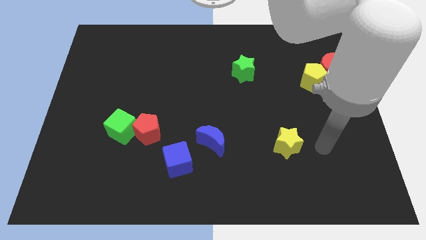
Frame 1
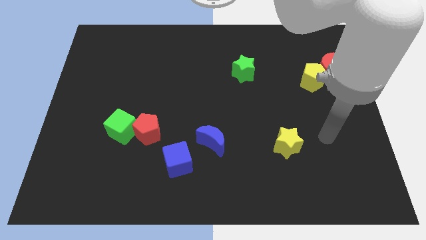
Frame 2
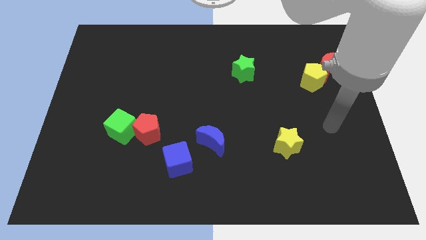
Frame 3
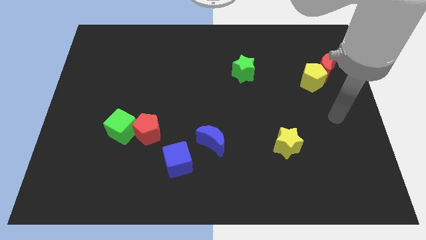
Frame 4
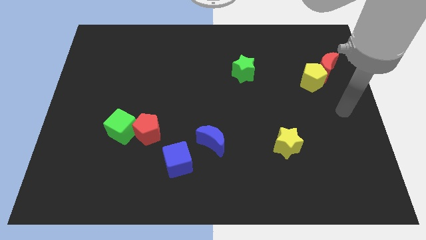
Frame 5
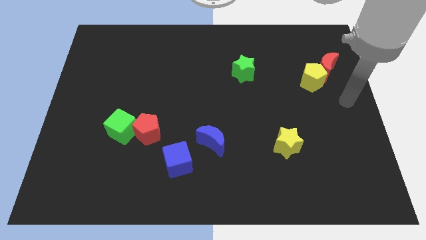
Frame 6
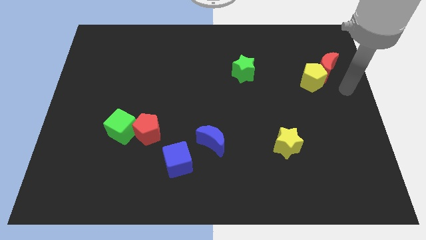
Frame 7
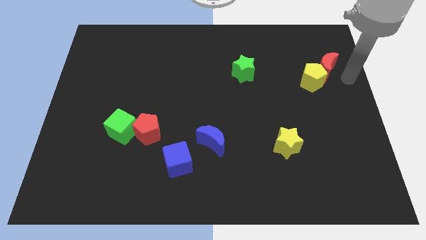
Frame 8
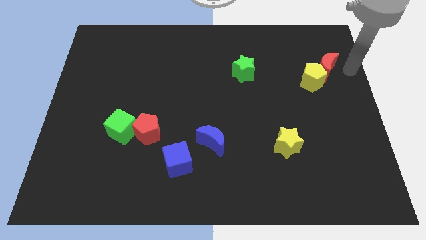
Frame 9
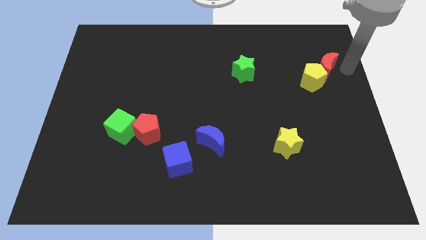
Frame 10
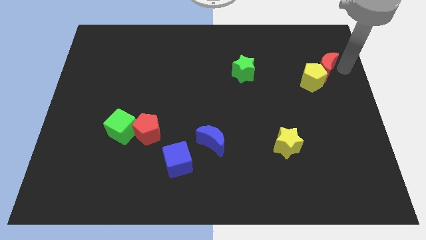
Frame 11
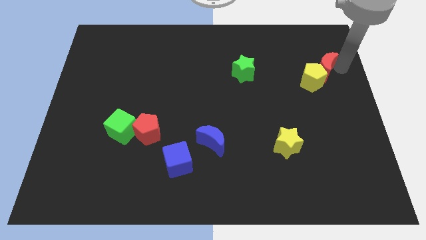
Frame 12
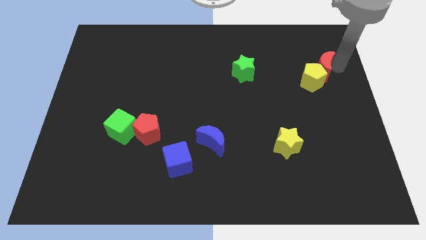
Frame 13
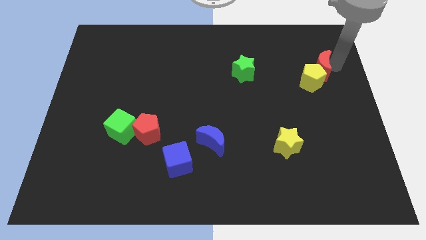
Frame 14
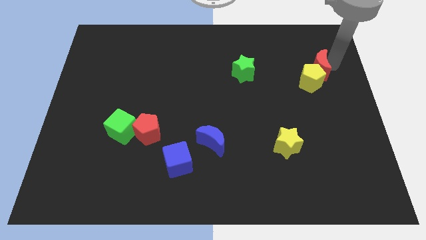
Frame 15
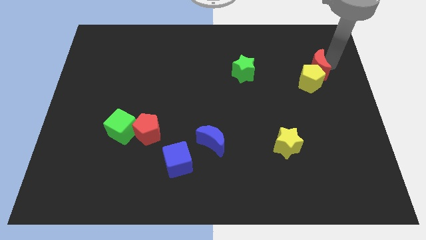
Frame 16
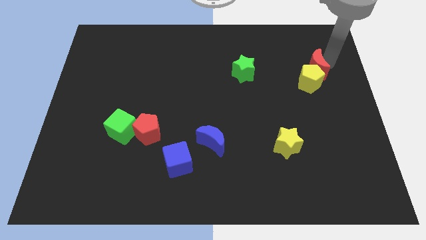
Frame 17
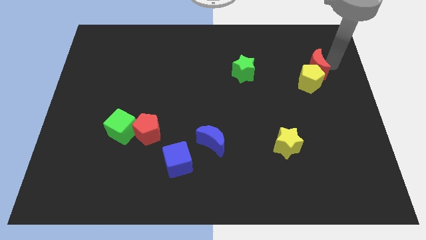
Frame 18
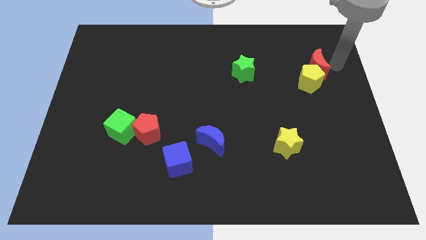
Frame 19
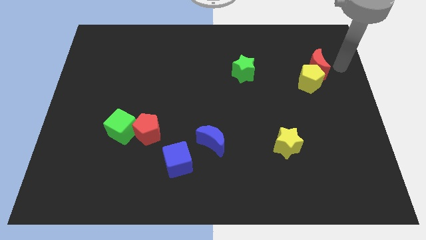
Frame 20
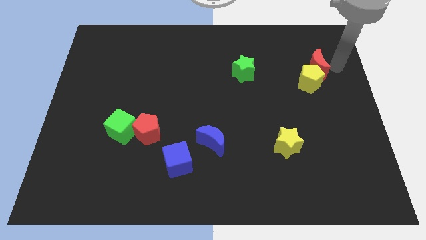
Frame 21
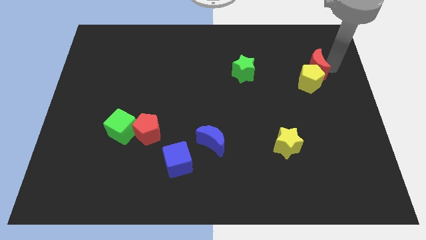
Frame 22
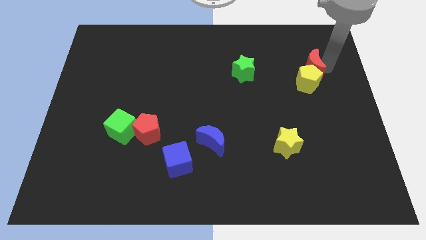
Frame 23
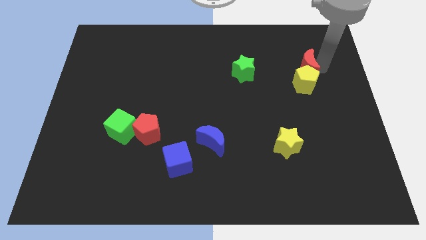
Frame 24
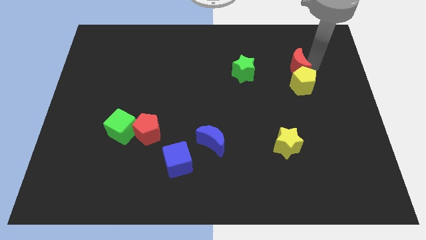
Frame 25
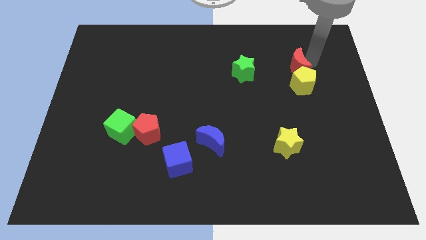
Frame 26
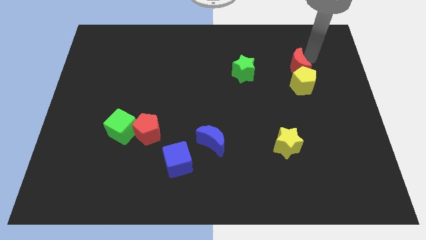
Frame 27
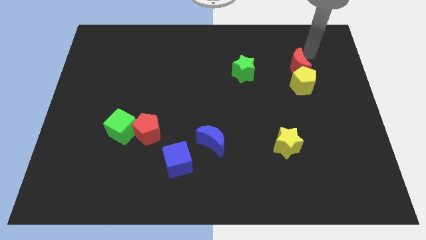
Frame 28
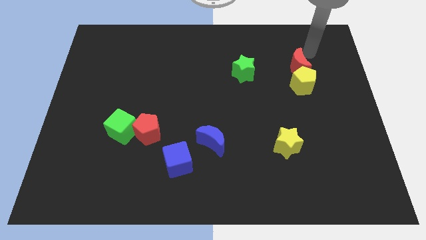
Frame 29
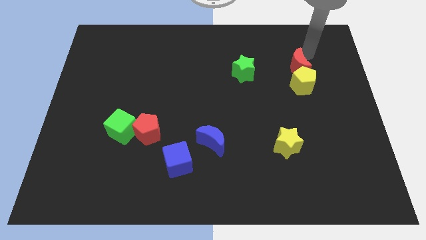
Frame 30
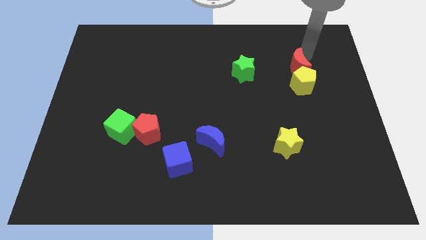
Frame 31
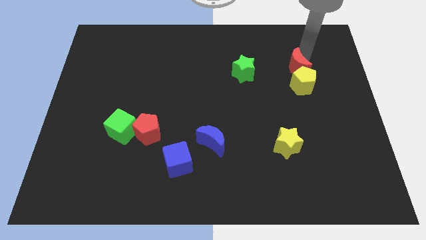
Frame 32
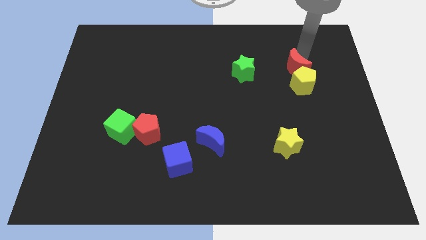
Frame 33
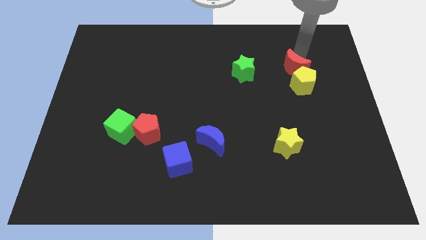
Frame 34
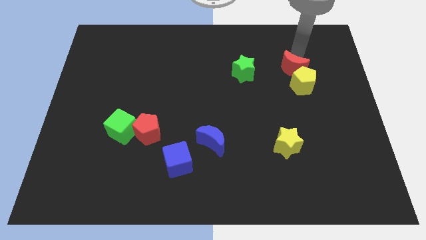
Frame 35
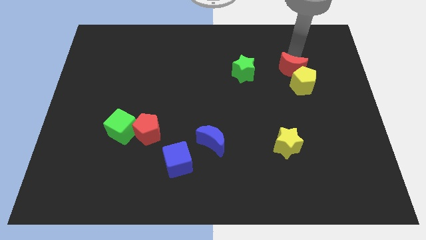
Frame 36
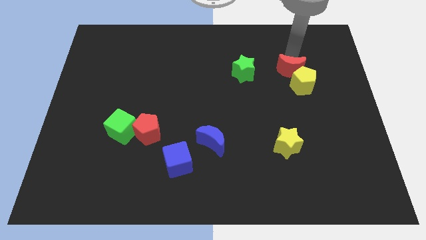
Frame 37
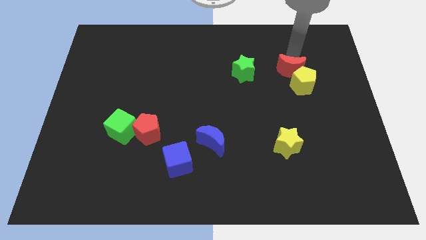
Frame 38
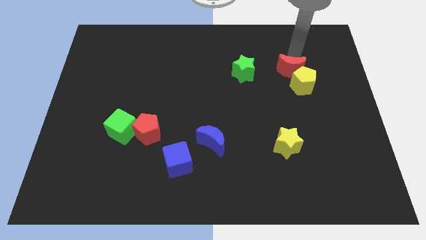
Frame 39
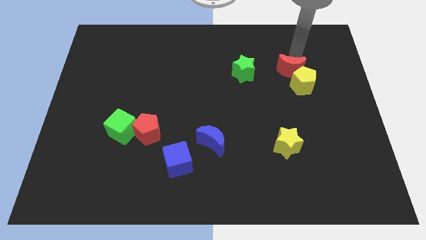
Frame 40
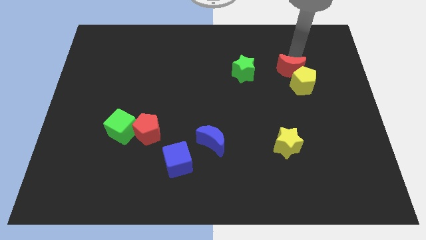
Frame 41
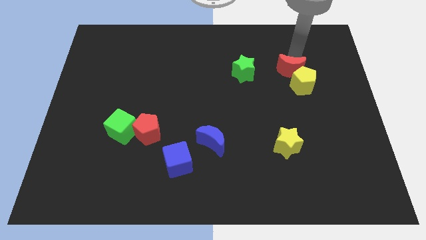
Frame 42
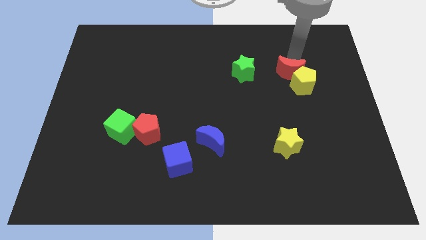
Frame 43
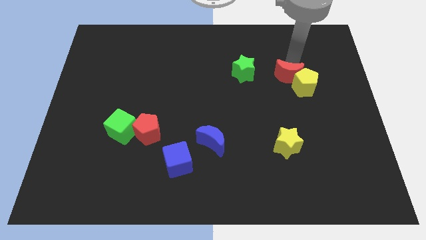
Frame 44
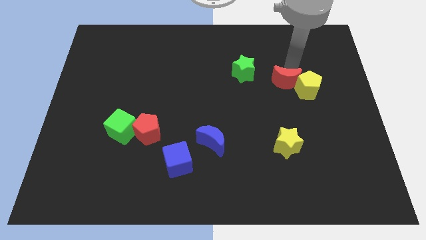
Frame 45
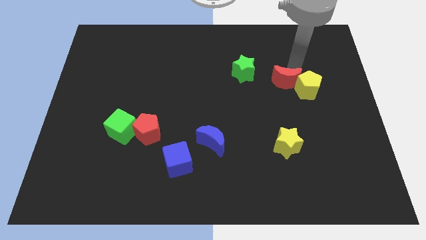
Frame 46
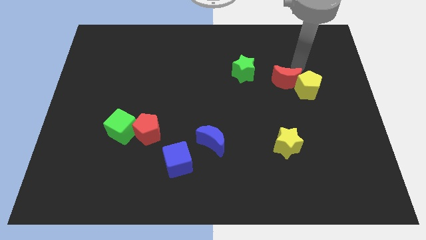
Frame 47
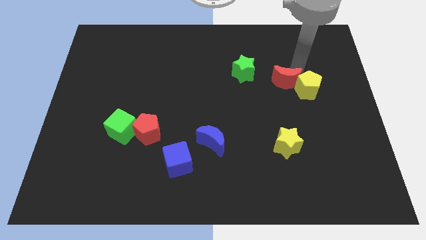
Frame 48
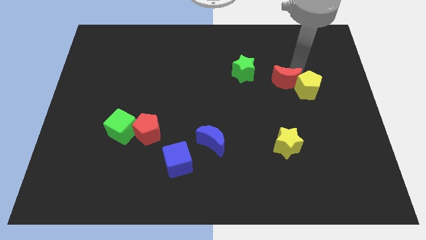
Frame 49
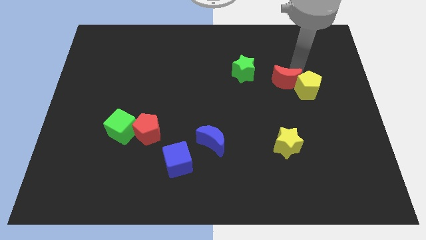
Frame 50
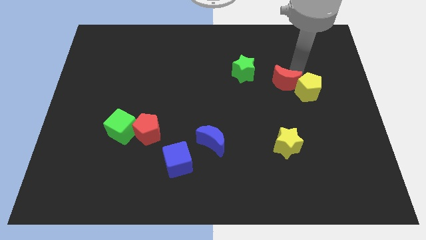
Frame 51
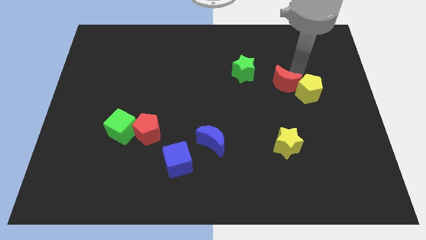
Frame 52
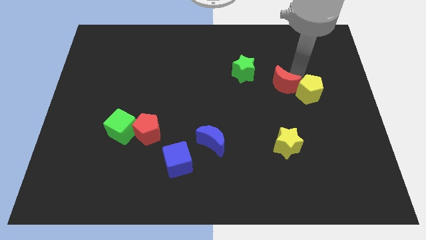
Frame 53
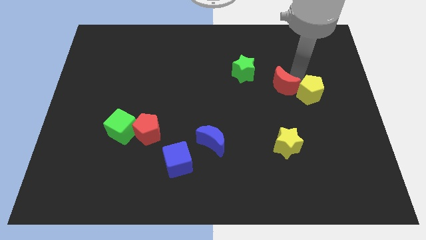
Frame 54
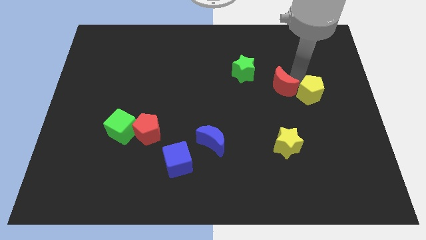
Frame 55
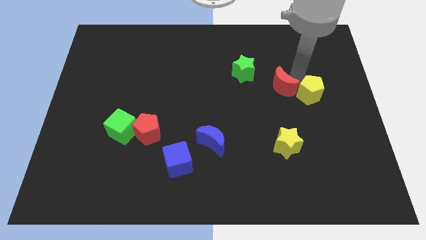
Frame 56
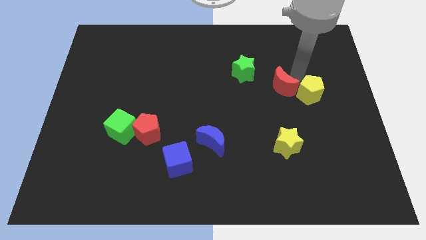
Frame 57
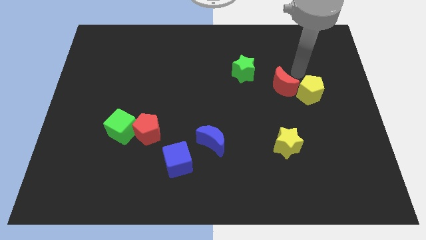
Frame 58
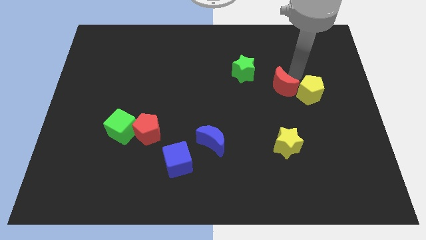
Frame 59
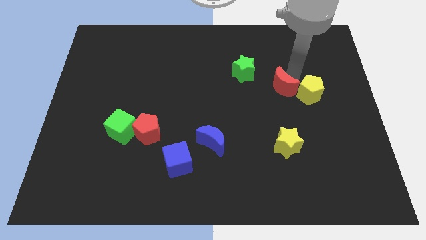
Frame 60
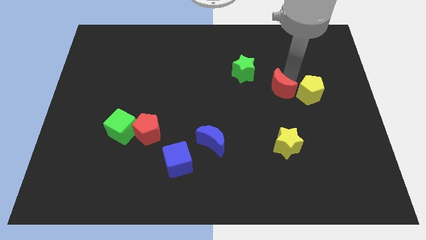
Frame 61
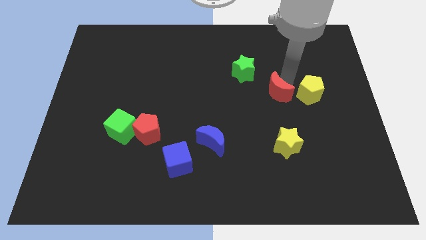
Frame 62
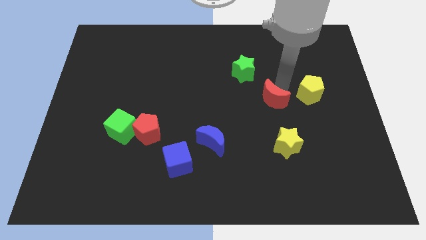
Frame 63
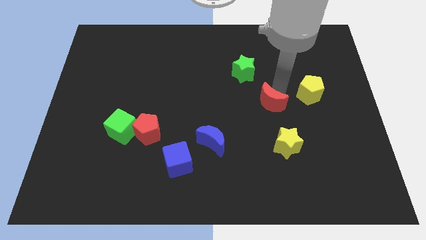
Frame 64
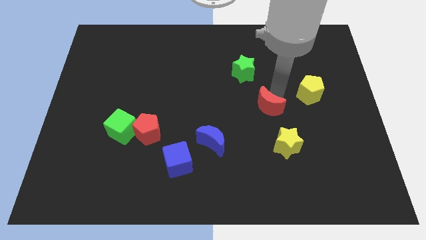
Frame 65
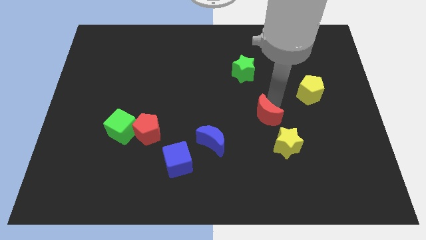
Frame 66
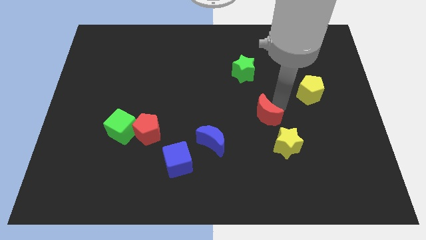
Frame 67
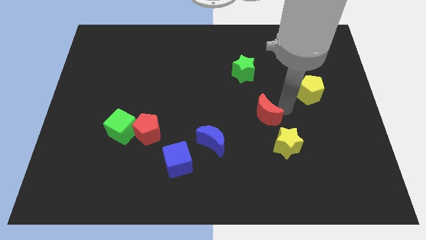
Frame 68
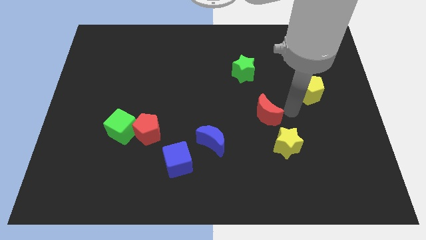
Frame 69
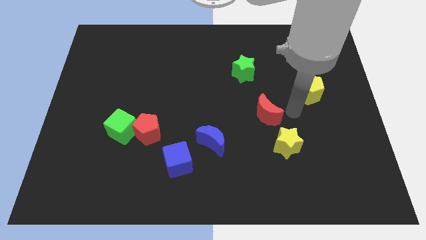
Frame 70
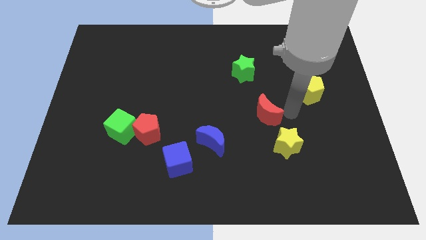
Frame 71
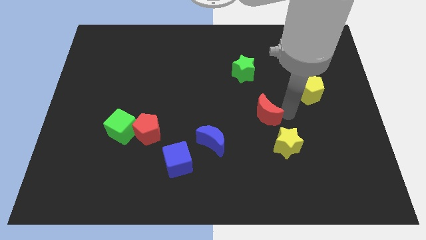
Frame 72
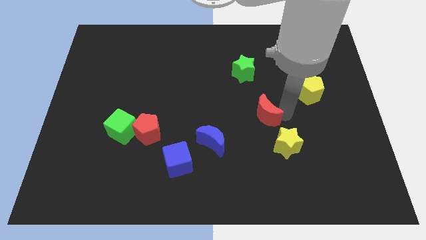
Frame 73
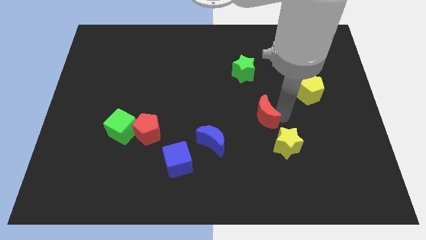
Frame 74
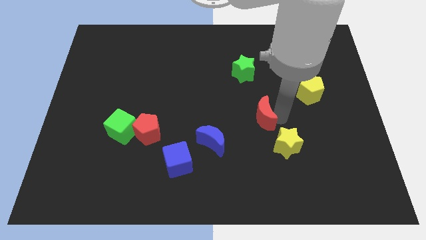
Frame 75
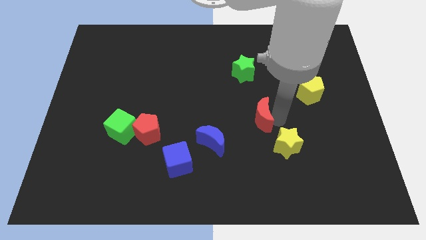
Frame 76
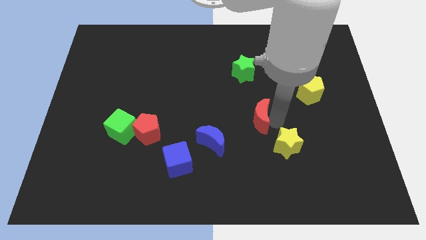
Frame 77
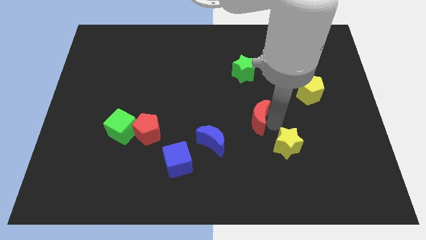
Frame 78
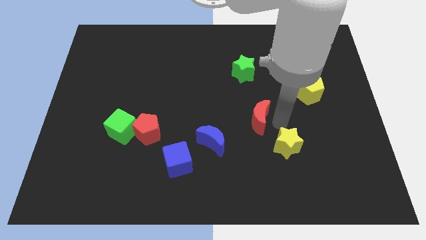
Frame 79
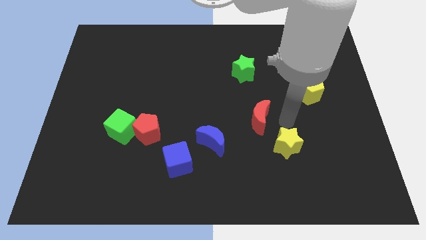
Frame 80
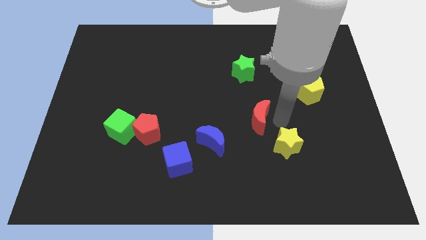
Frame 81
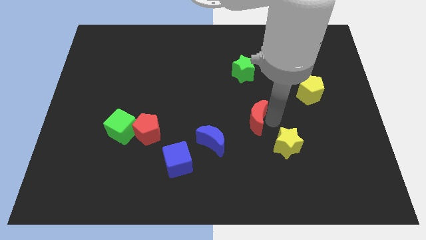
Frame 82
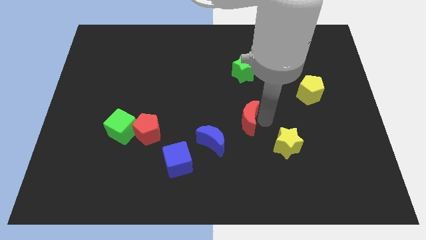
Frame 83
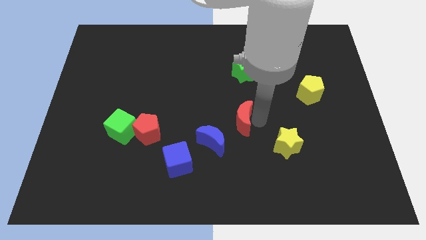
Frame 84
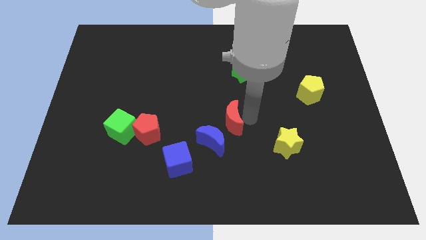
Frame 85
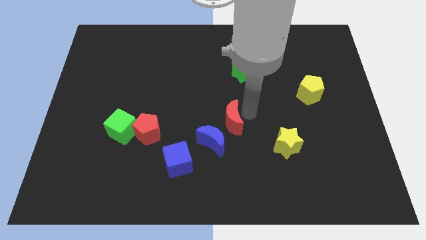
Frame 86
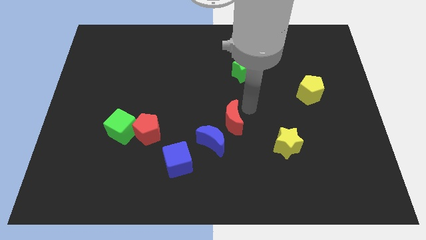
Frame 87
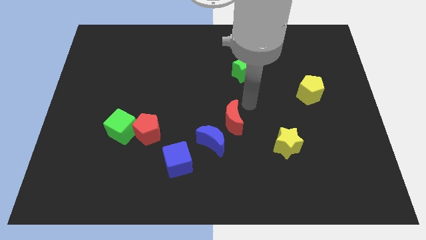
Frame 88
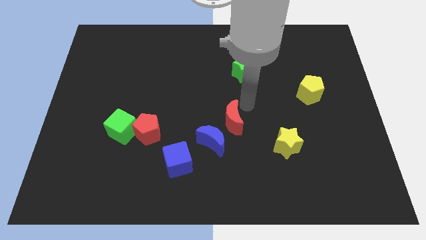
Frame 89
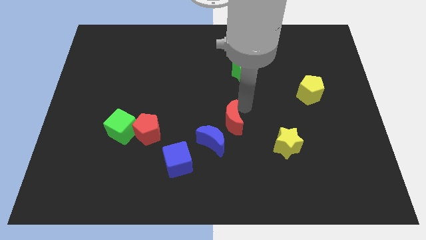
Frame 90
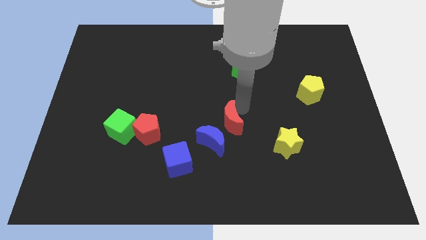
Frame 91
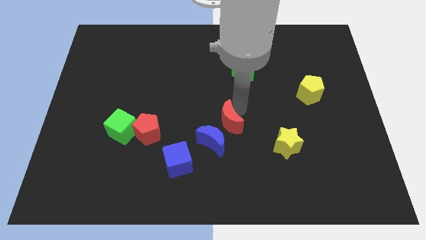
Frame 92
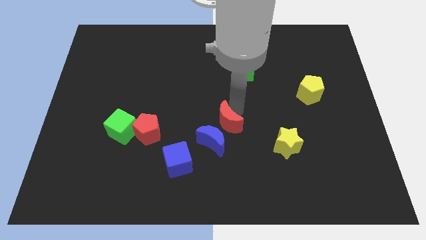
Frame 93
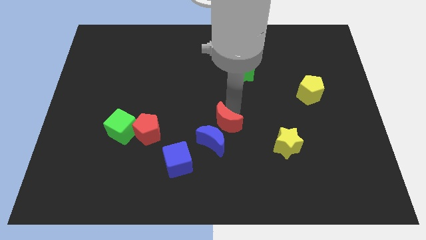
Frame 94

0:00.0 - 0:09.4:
slide the red moon to the blue moon
